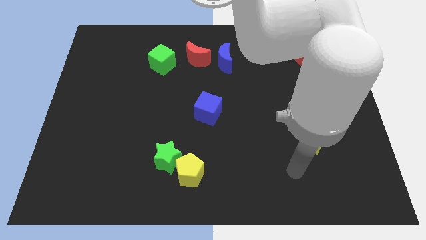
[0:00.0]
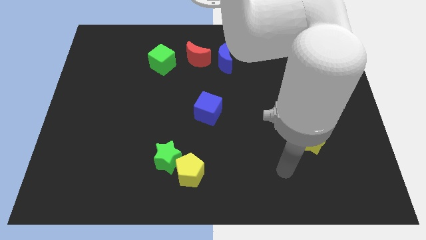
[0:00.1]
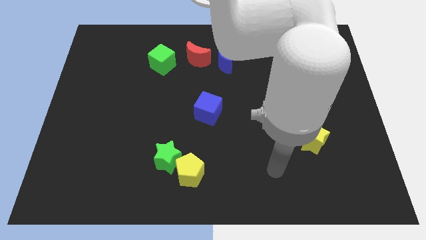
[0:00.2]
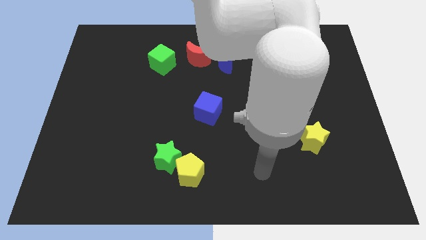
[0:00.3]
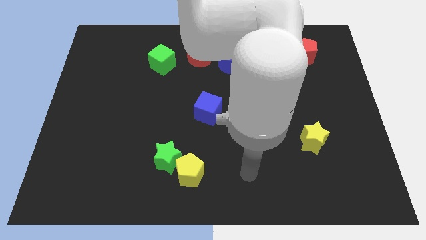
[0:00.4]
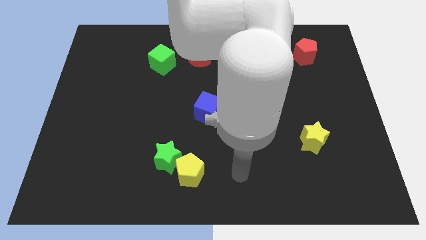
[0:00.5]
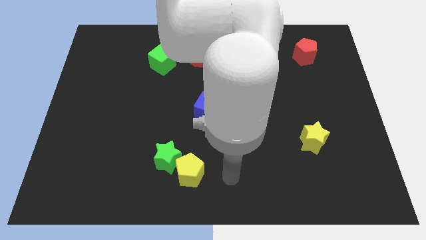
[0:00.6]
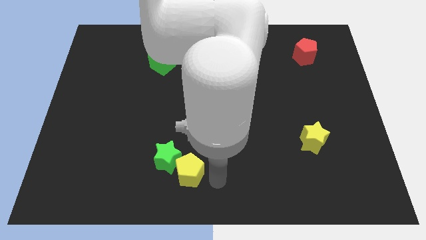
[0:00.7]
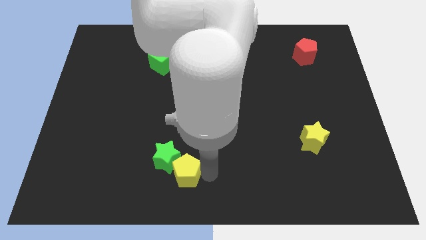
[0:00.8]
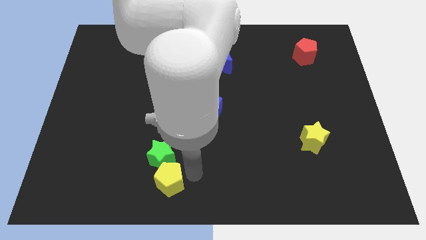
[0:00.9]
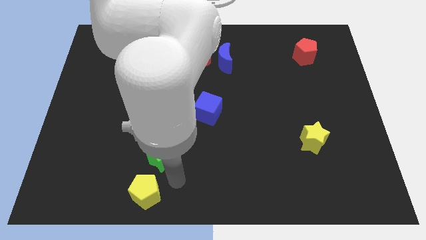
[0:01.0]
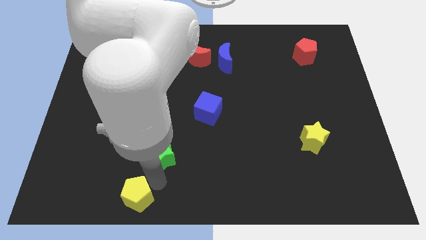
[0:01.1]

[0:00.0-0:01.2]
separate the green star from the yellow pentagon

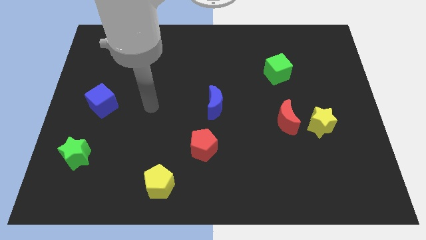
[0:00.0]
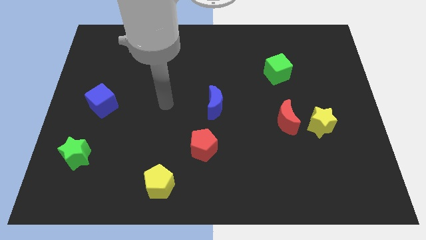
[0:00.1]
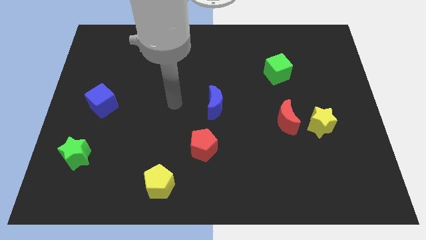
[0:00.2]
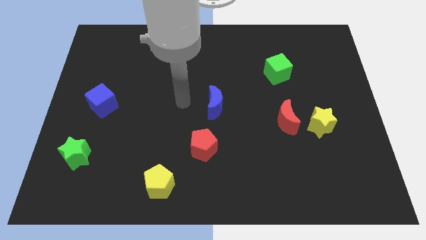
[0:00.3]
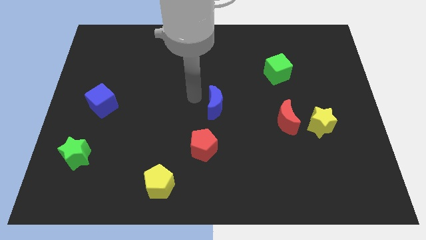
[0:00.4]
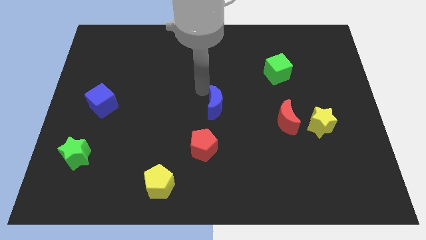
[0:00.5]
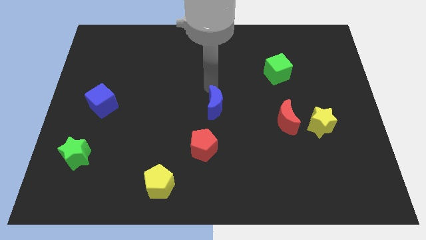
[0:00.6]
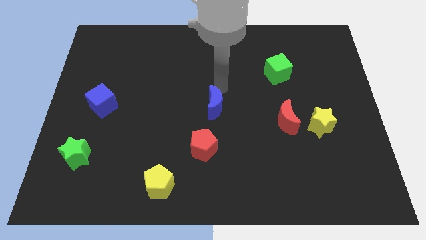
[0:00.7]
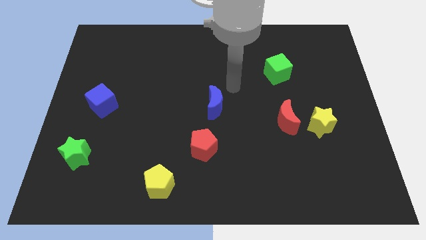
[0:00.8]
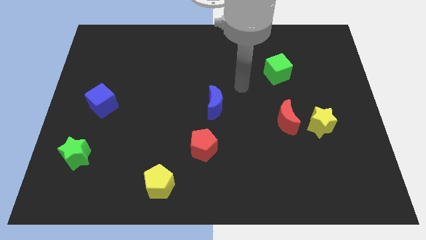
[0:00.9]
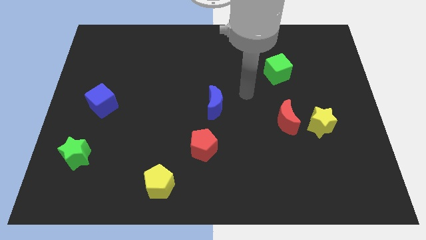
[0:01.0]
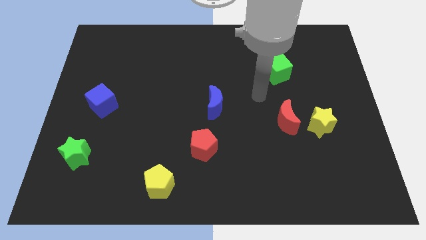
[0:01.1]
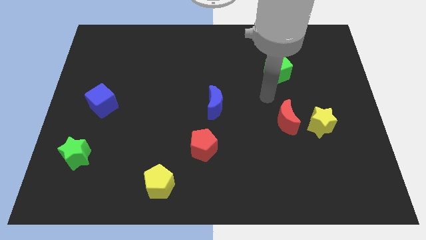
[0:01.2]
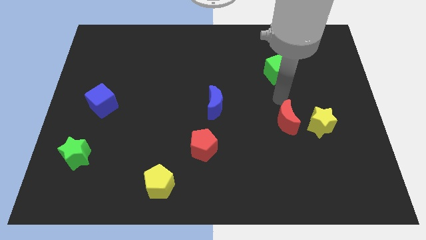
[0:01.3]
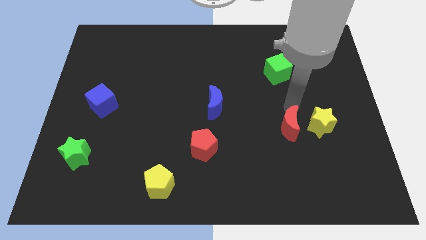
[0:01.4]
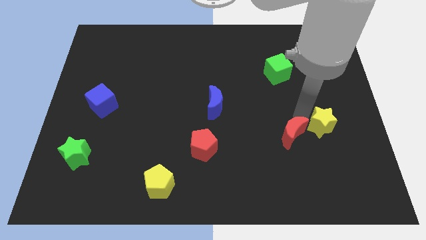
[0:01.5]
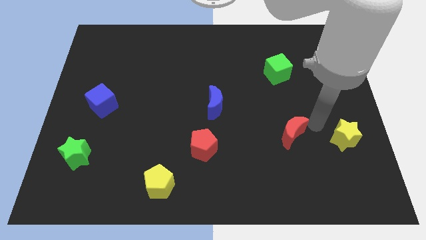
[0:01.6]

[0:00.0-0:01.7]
separate the red moon from the yellow star

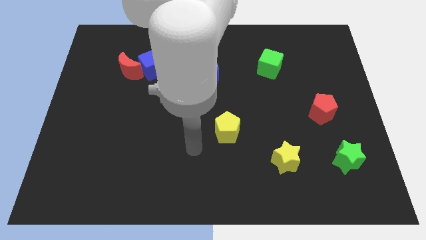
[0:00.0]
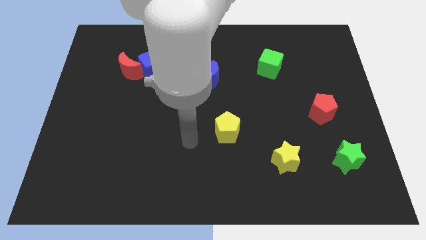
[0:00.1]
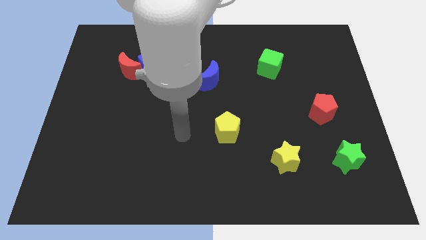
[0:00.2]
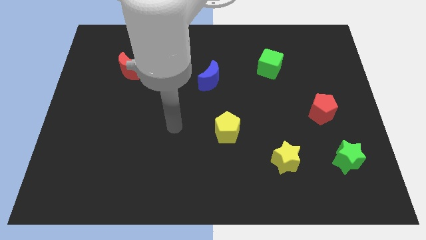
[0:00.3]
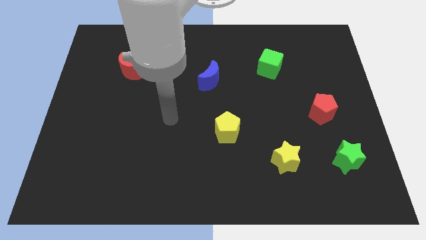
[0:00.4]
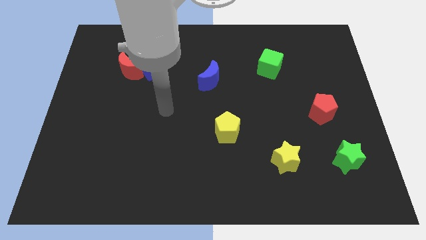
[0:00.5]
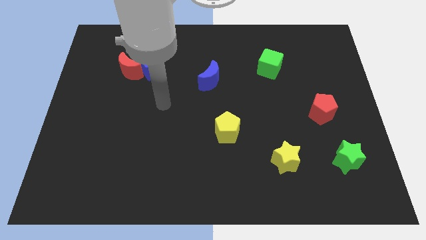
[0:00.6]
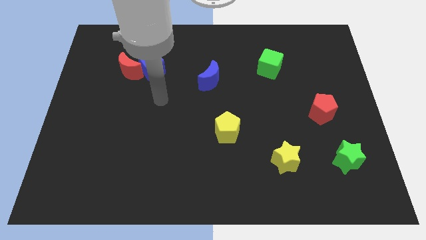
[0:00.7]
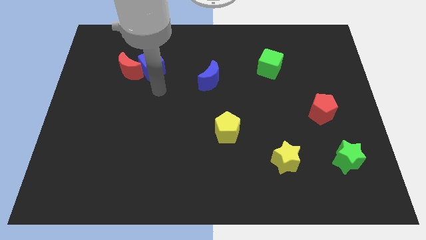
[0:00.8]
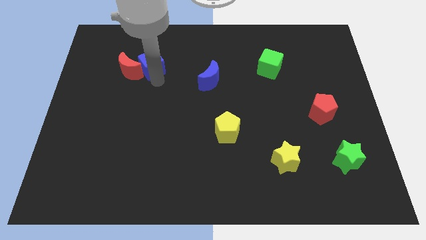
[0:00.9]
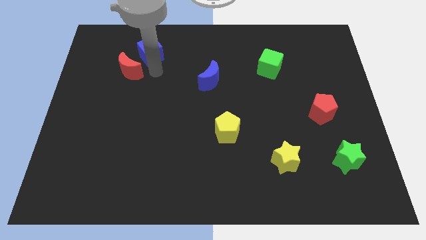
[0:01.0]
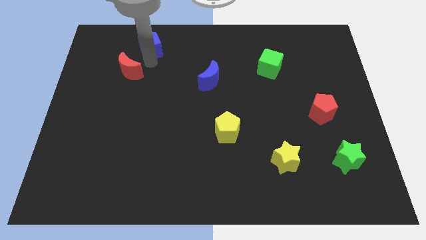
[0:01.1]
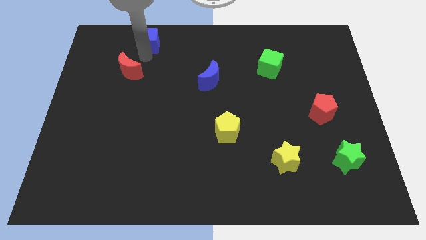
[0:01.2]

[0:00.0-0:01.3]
separate the red moon from the blue cube

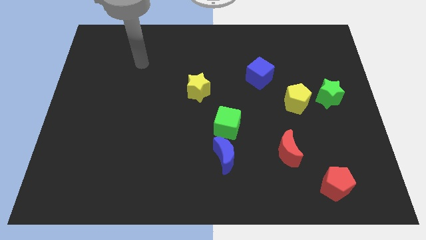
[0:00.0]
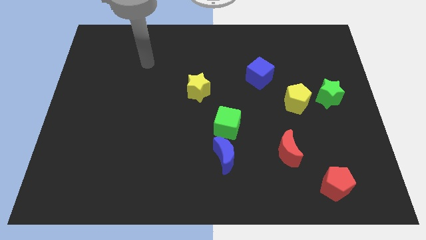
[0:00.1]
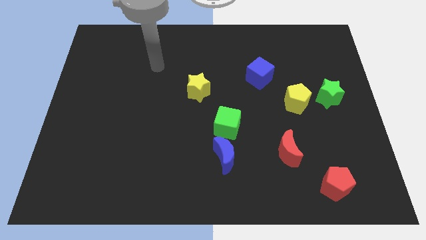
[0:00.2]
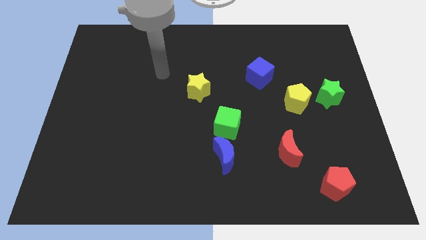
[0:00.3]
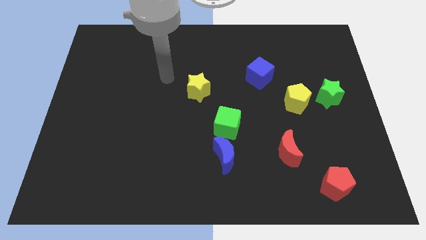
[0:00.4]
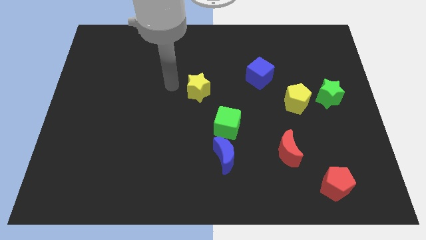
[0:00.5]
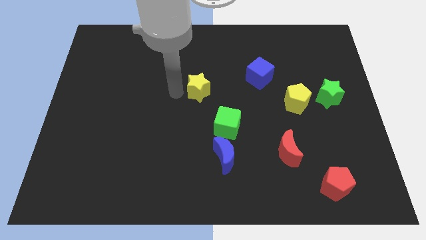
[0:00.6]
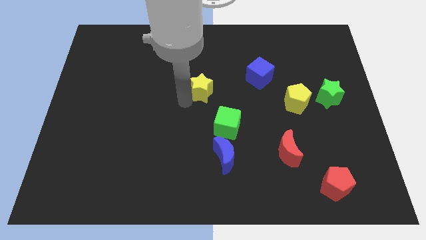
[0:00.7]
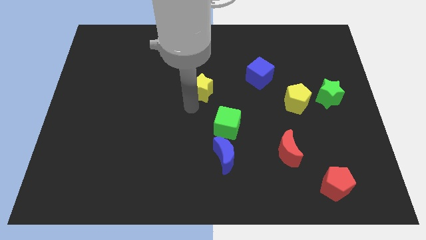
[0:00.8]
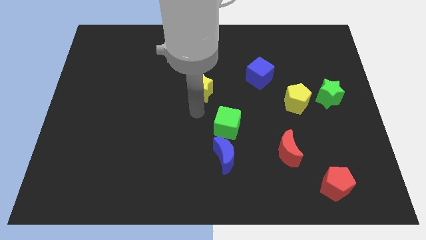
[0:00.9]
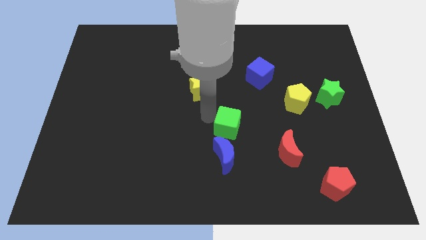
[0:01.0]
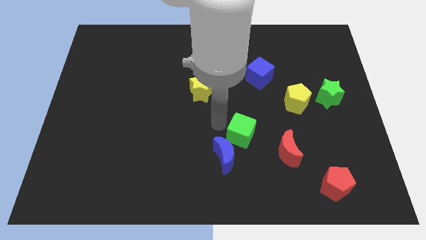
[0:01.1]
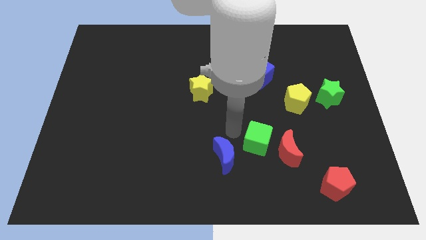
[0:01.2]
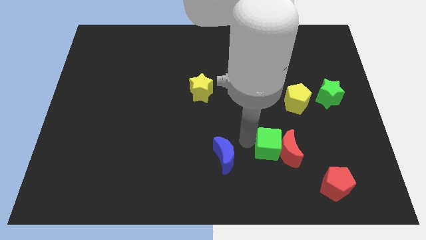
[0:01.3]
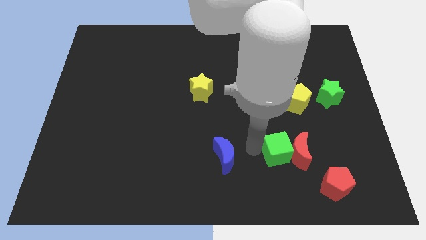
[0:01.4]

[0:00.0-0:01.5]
pull the blue moon apart from the green cube
